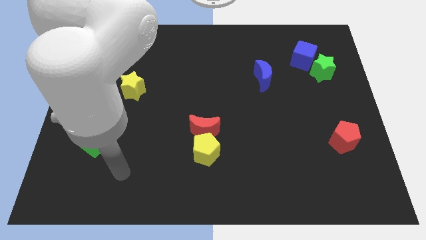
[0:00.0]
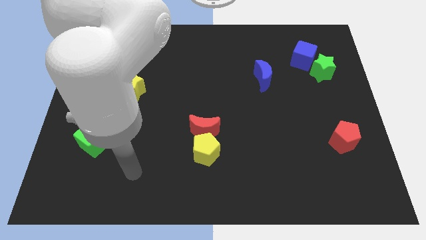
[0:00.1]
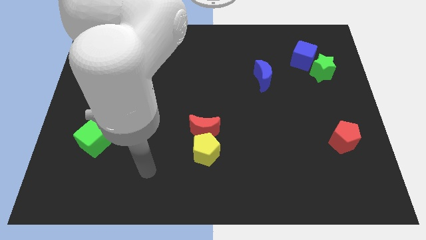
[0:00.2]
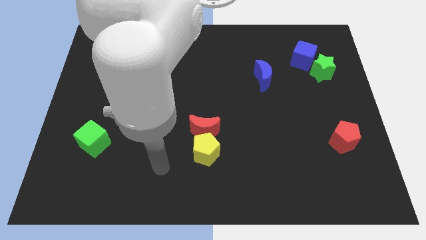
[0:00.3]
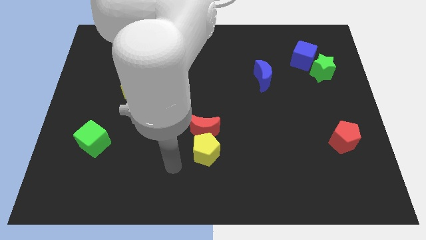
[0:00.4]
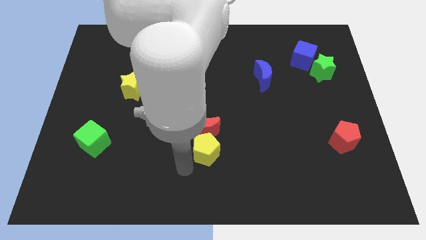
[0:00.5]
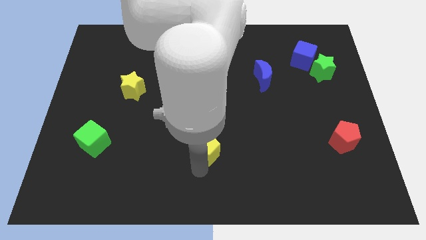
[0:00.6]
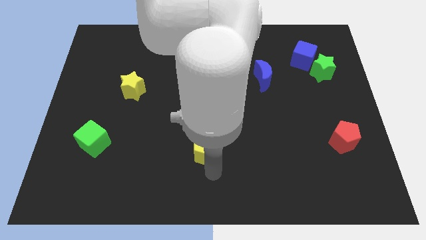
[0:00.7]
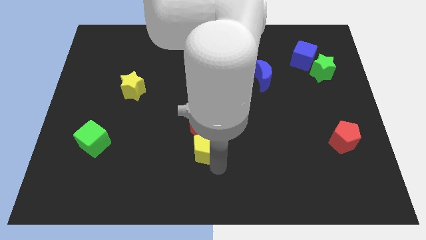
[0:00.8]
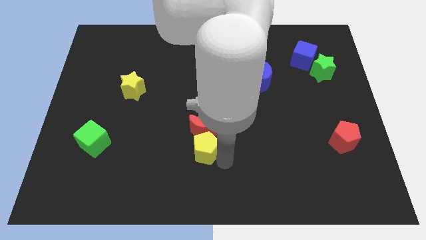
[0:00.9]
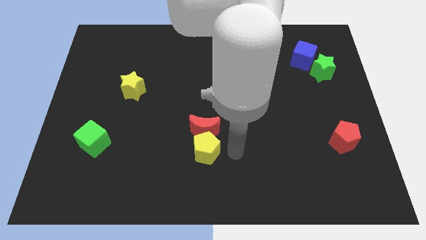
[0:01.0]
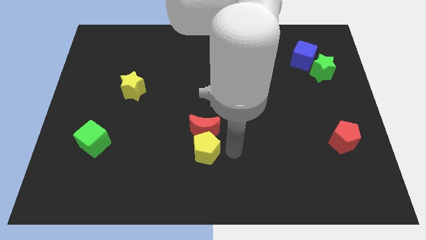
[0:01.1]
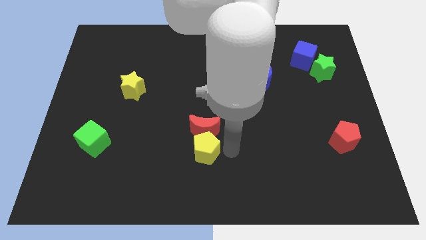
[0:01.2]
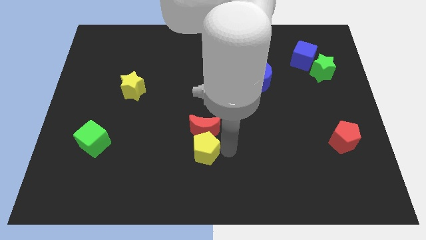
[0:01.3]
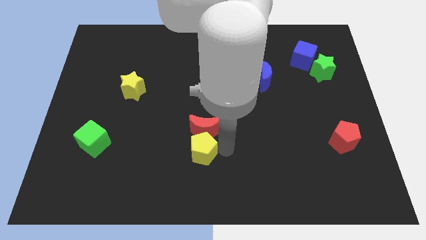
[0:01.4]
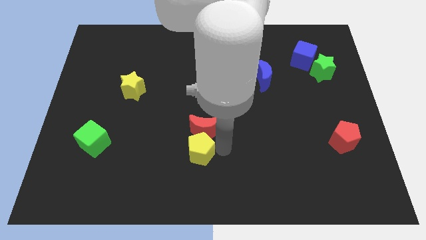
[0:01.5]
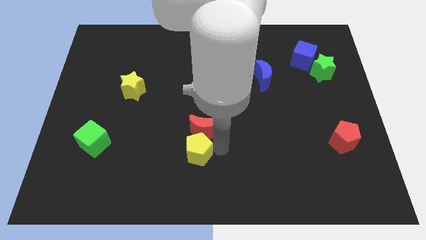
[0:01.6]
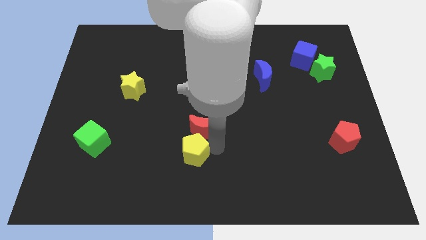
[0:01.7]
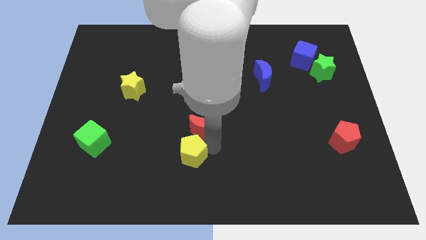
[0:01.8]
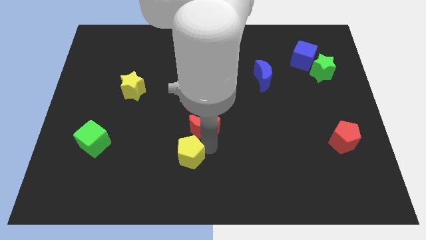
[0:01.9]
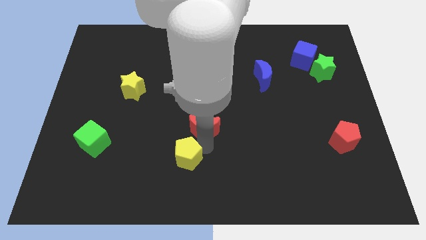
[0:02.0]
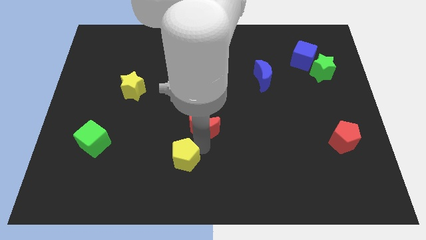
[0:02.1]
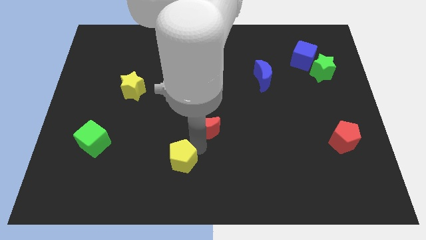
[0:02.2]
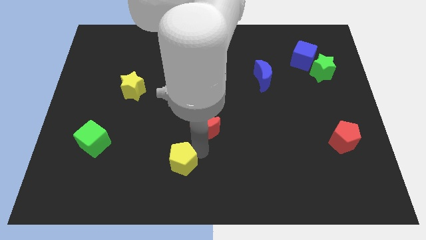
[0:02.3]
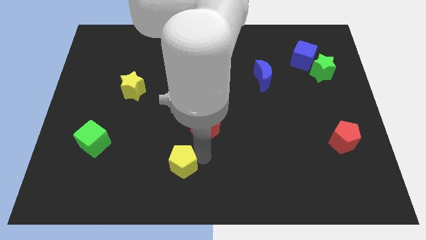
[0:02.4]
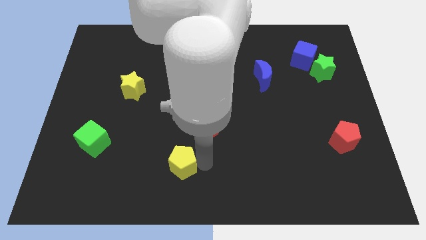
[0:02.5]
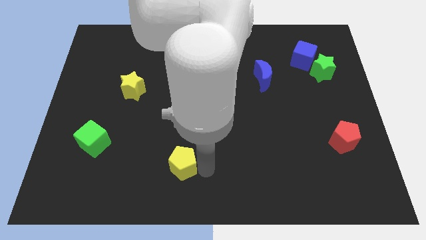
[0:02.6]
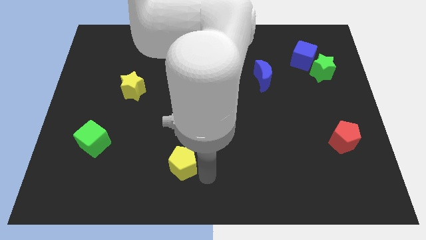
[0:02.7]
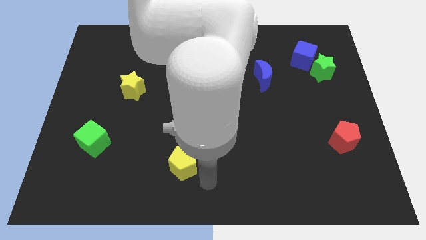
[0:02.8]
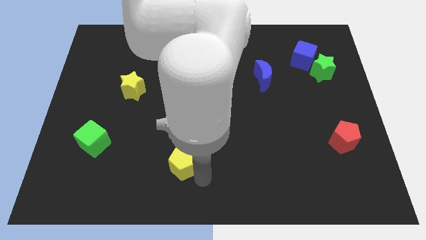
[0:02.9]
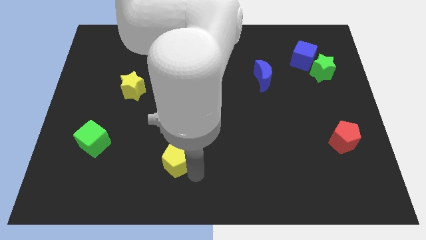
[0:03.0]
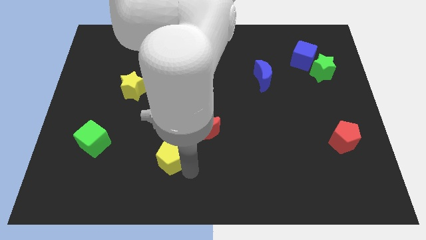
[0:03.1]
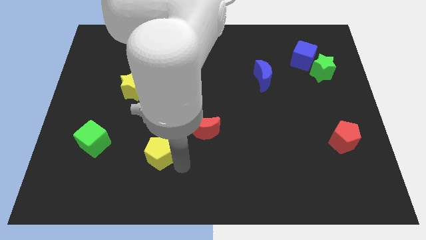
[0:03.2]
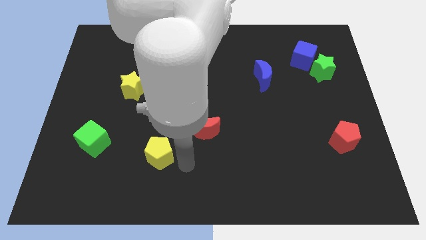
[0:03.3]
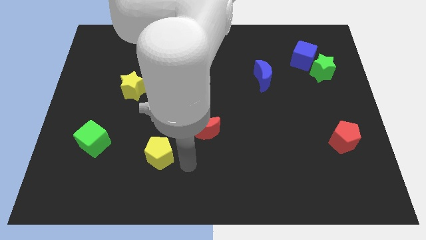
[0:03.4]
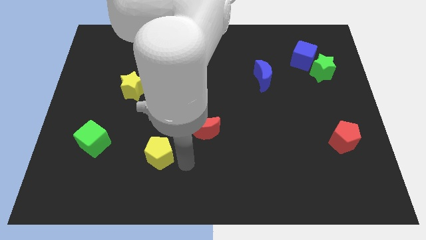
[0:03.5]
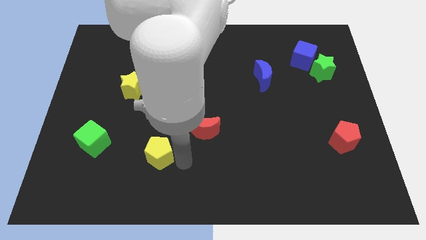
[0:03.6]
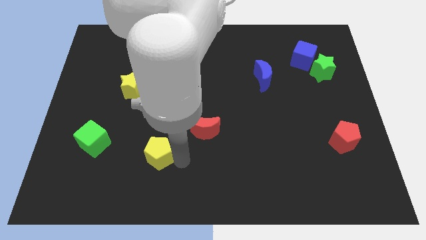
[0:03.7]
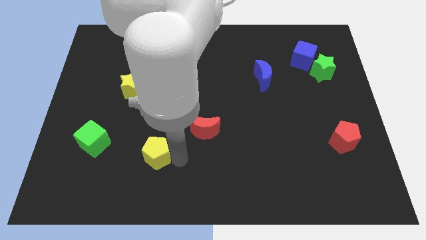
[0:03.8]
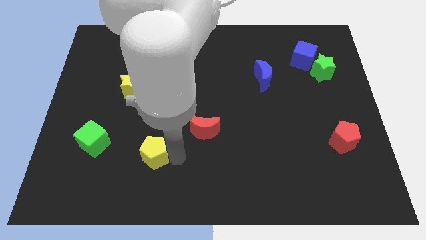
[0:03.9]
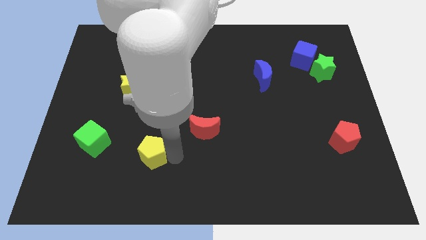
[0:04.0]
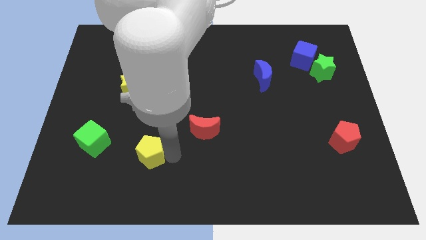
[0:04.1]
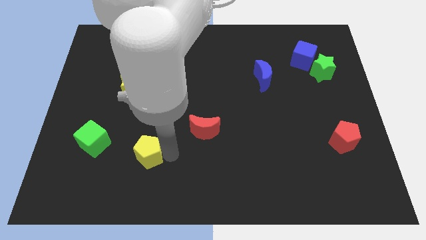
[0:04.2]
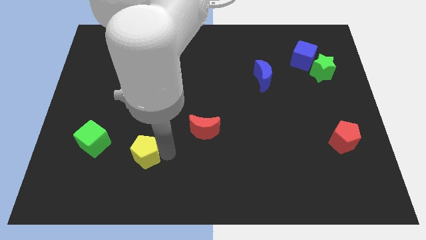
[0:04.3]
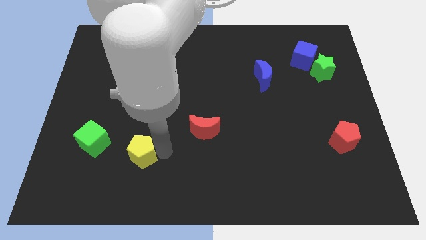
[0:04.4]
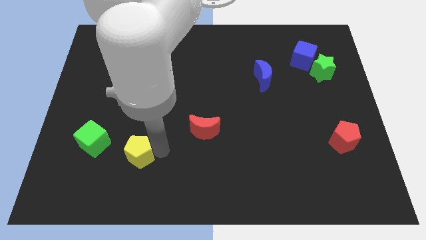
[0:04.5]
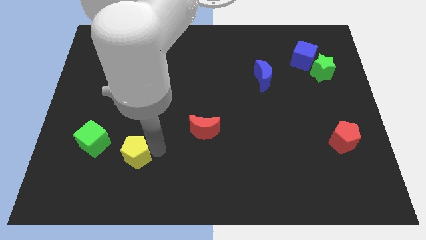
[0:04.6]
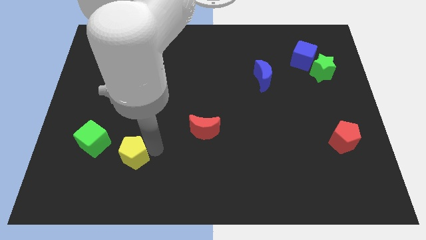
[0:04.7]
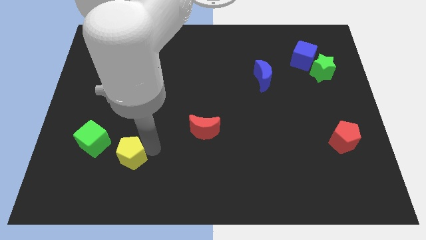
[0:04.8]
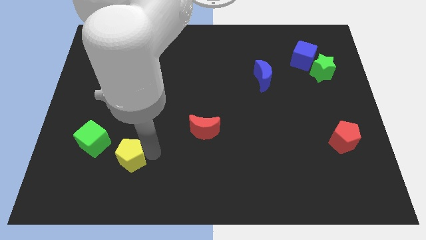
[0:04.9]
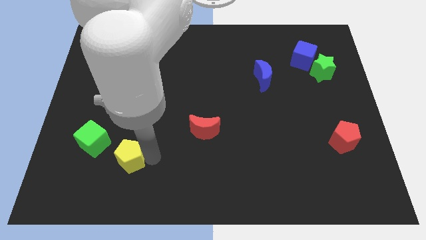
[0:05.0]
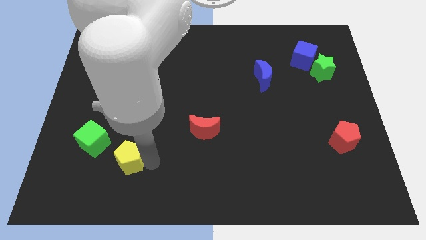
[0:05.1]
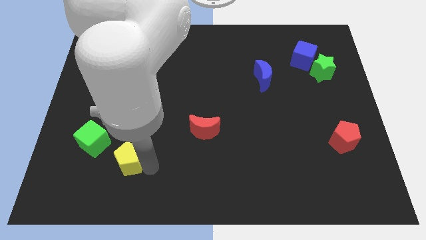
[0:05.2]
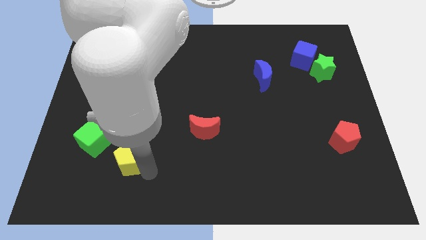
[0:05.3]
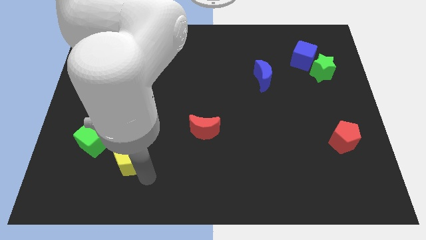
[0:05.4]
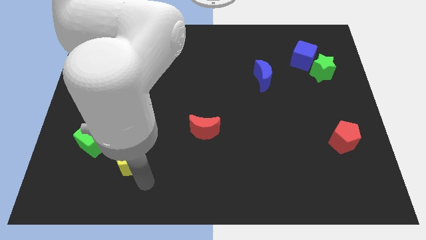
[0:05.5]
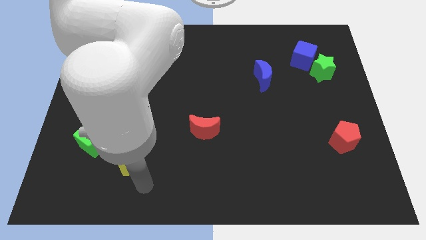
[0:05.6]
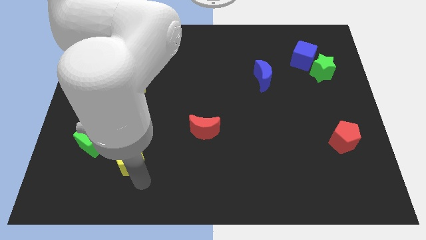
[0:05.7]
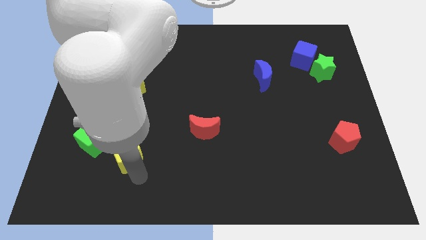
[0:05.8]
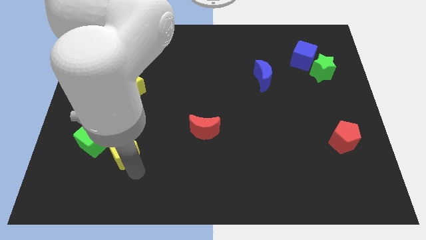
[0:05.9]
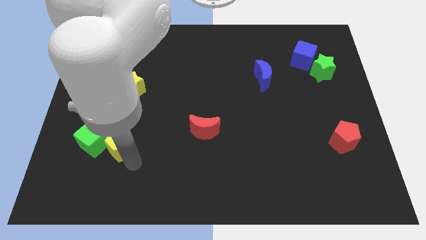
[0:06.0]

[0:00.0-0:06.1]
move the yellow pentagon towards the green cube

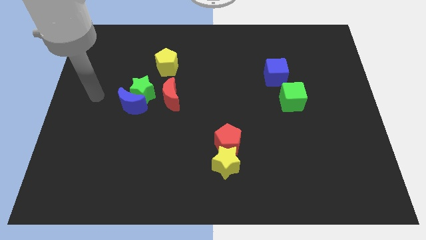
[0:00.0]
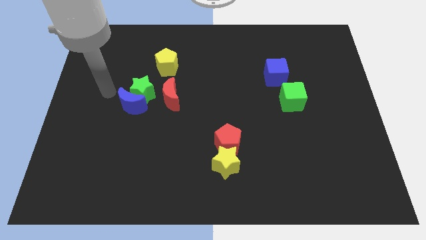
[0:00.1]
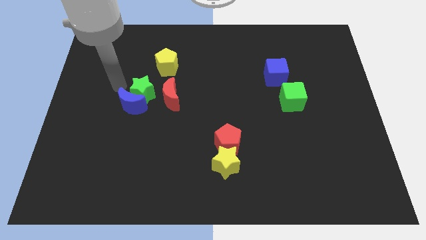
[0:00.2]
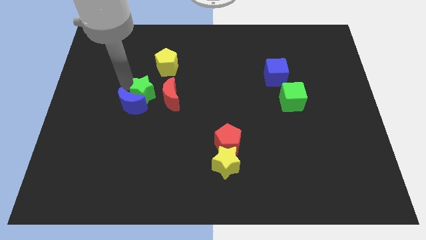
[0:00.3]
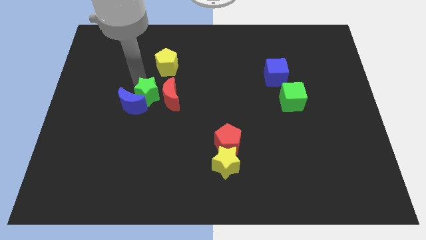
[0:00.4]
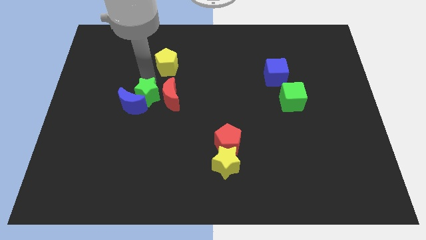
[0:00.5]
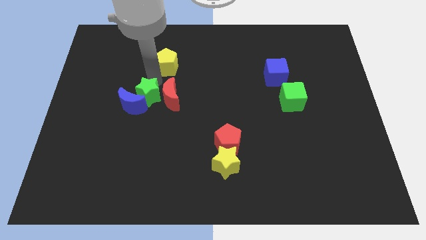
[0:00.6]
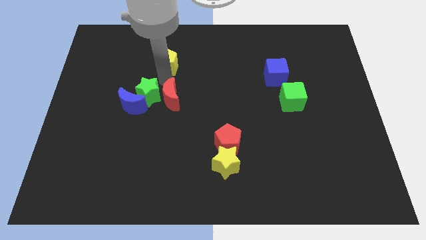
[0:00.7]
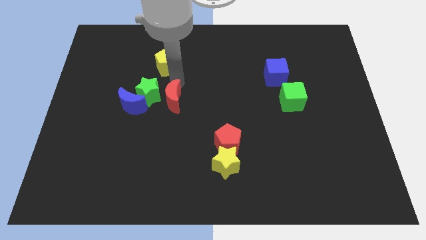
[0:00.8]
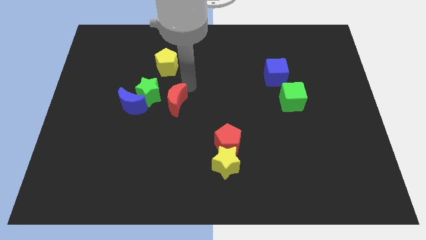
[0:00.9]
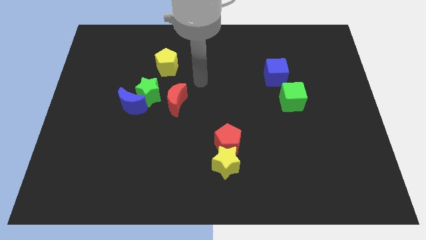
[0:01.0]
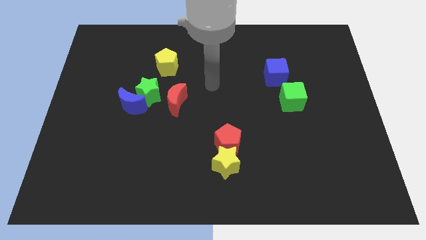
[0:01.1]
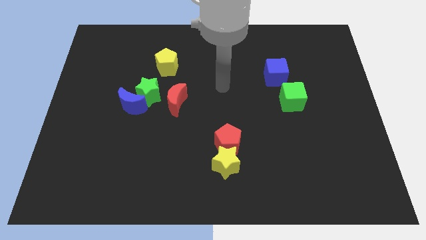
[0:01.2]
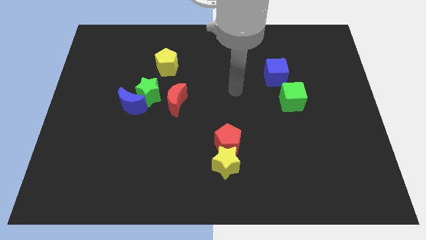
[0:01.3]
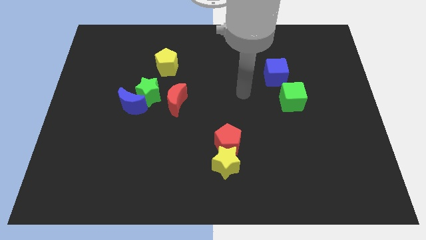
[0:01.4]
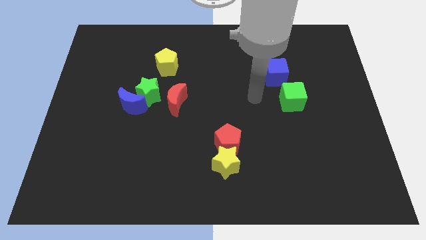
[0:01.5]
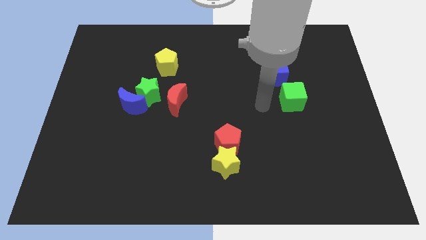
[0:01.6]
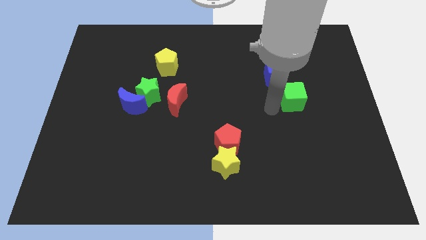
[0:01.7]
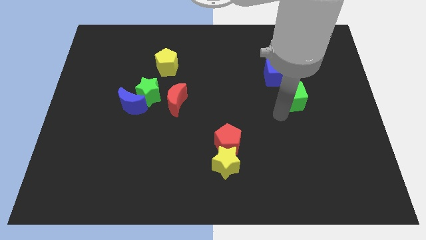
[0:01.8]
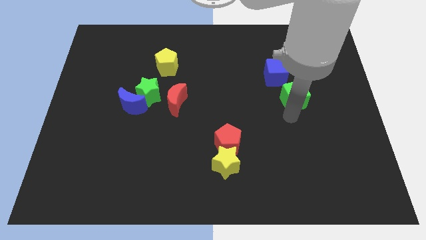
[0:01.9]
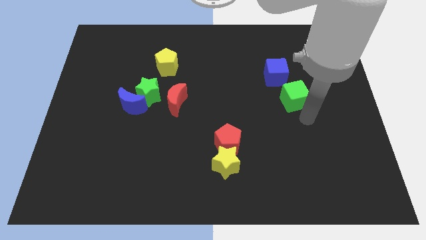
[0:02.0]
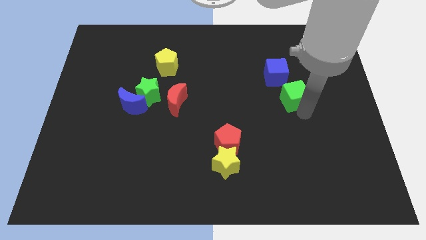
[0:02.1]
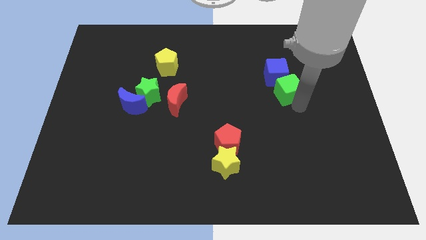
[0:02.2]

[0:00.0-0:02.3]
push the green cube to the blue cube

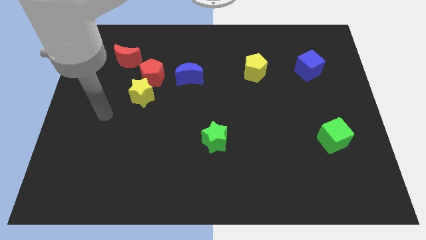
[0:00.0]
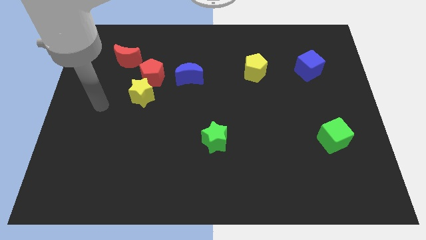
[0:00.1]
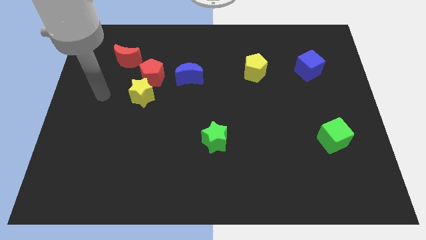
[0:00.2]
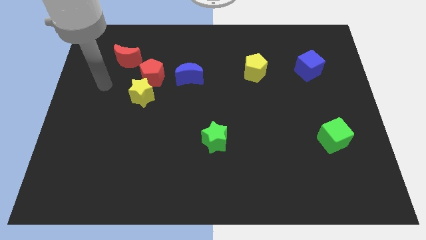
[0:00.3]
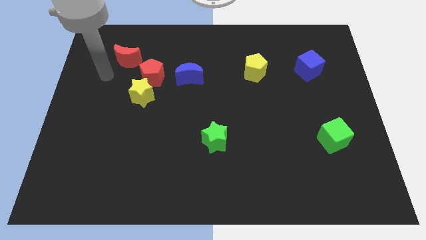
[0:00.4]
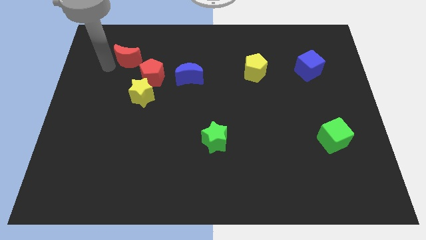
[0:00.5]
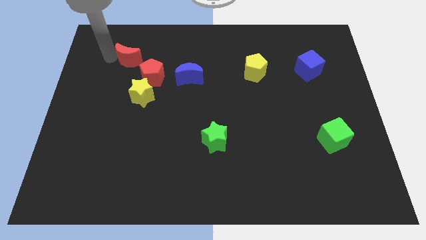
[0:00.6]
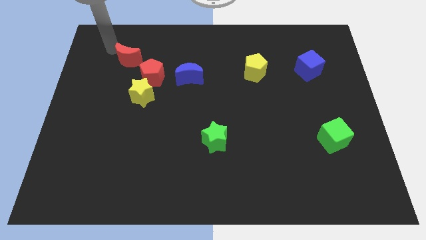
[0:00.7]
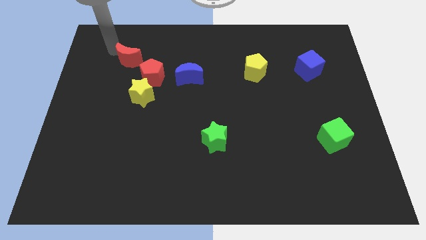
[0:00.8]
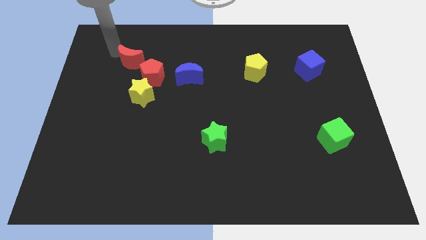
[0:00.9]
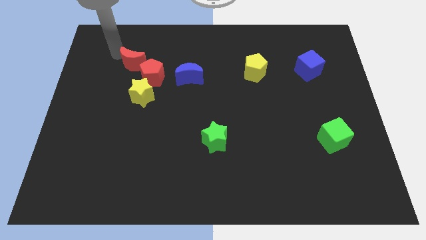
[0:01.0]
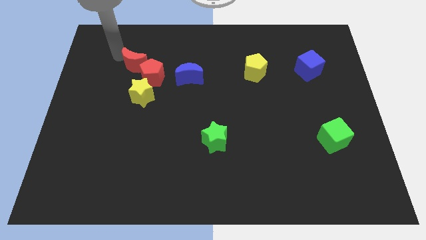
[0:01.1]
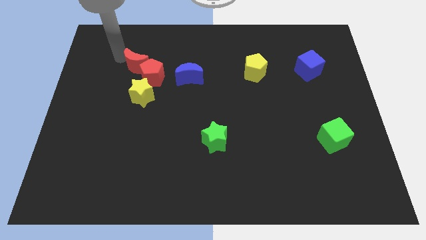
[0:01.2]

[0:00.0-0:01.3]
push the red moon to the red pentagon
